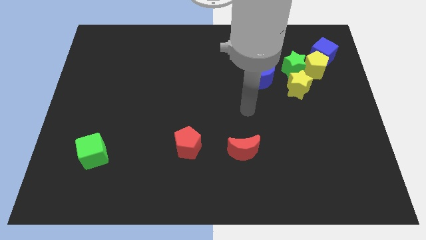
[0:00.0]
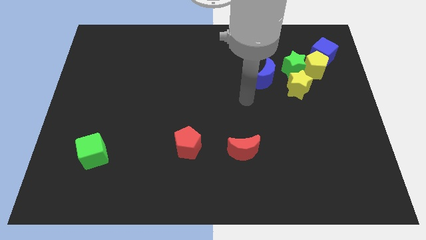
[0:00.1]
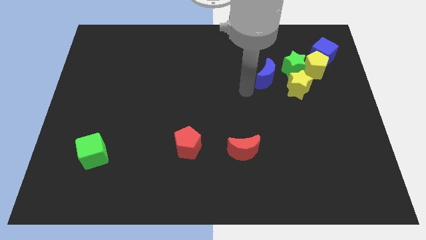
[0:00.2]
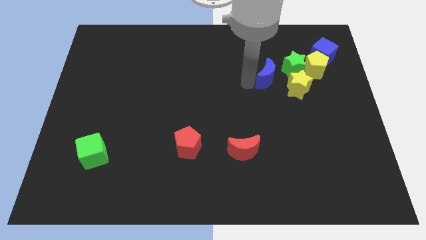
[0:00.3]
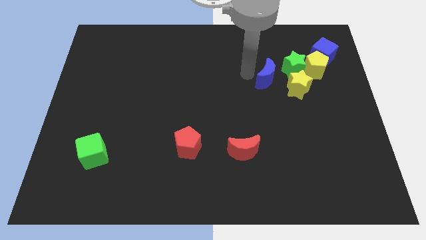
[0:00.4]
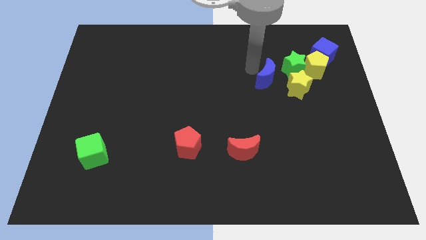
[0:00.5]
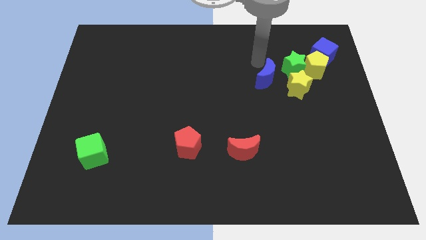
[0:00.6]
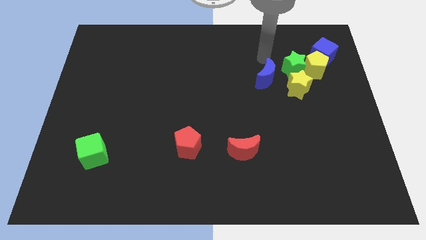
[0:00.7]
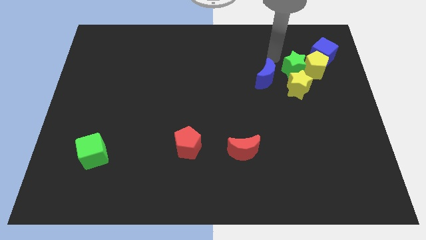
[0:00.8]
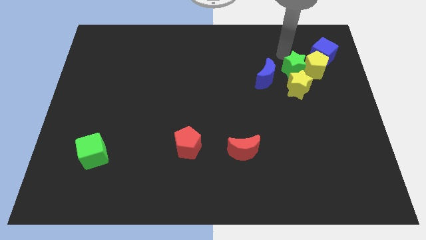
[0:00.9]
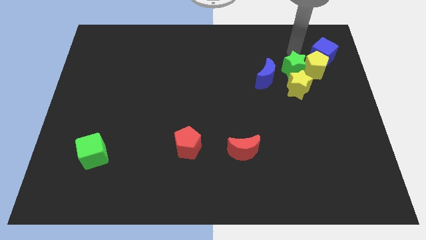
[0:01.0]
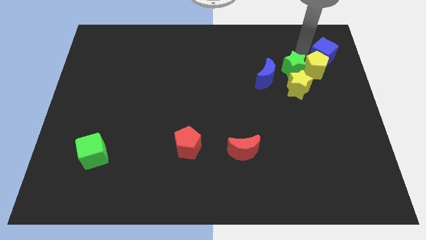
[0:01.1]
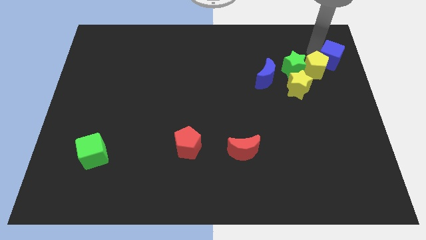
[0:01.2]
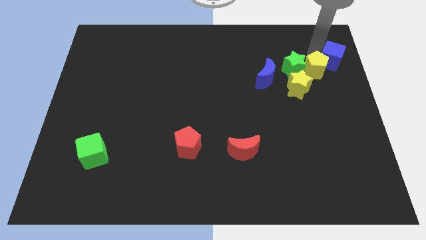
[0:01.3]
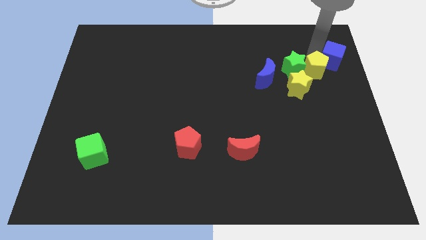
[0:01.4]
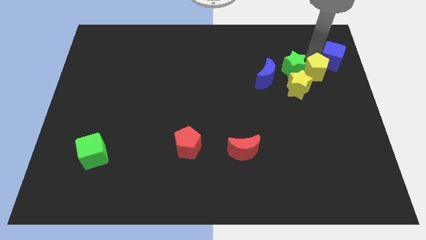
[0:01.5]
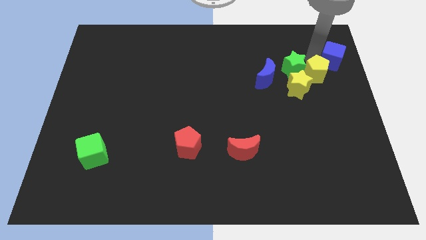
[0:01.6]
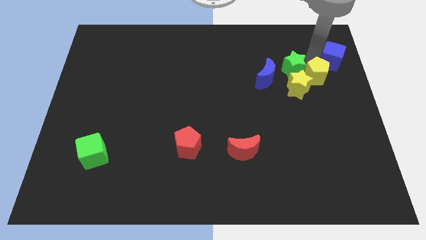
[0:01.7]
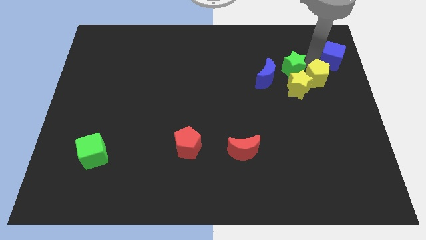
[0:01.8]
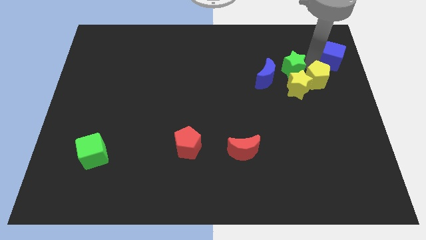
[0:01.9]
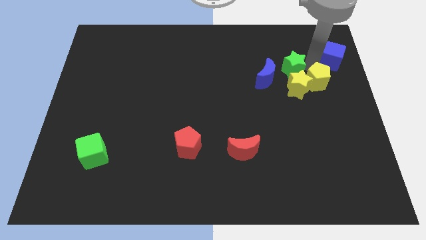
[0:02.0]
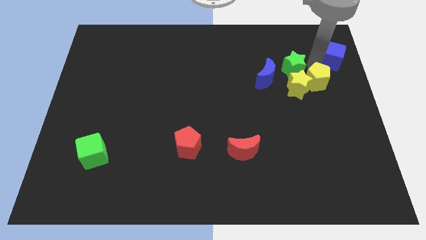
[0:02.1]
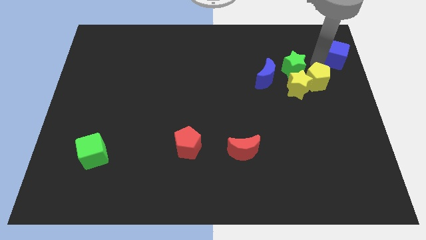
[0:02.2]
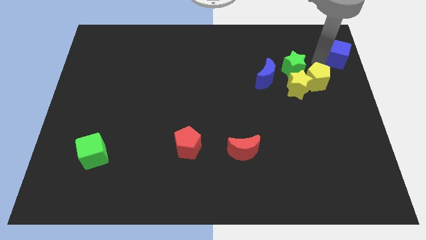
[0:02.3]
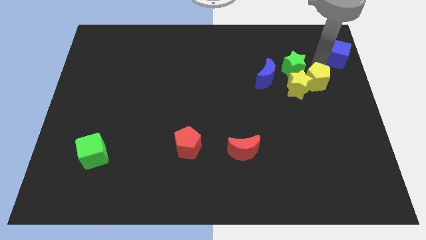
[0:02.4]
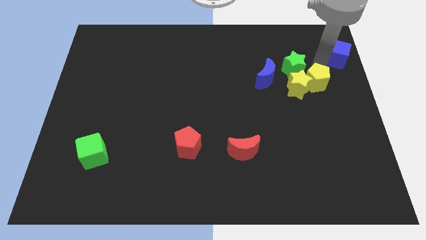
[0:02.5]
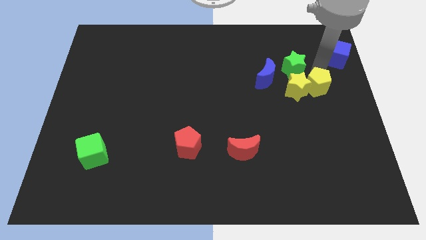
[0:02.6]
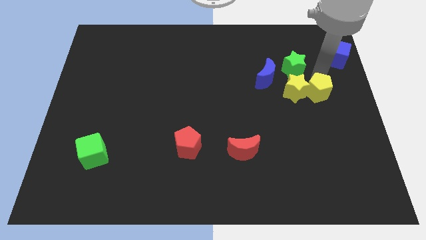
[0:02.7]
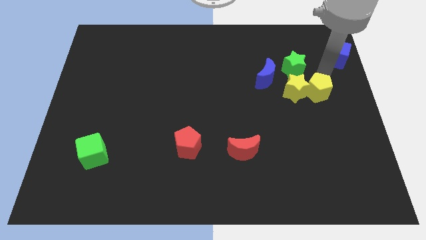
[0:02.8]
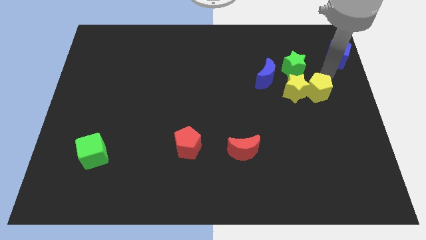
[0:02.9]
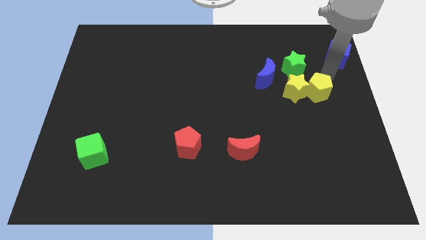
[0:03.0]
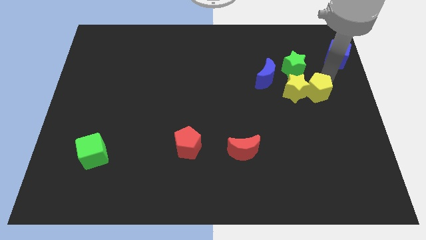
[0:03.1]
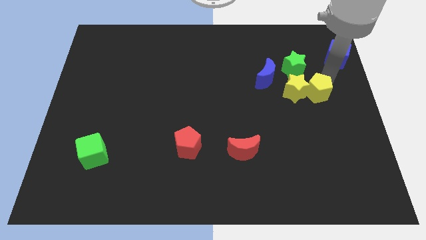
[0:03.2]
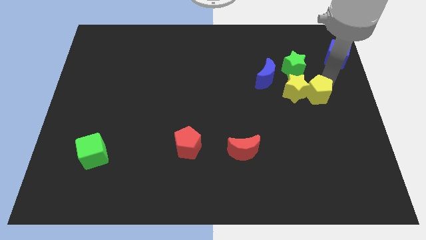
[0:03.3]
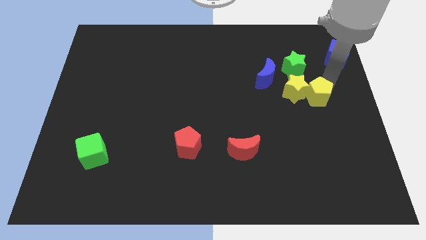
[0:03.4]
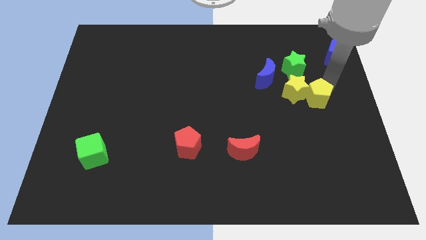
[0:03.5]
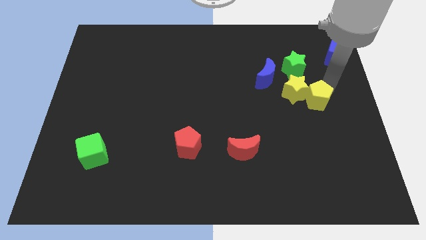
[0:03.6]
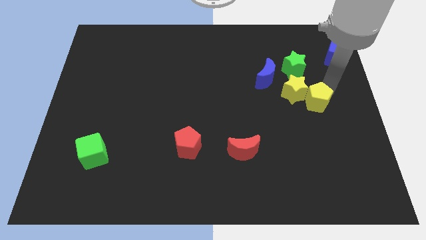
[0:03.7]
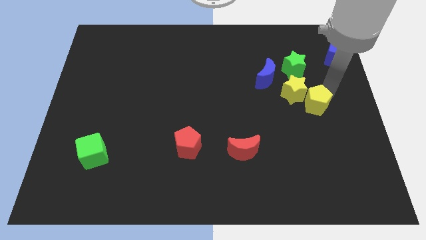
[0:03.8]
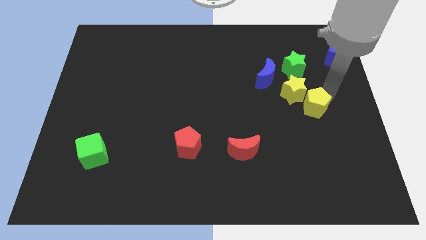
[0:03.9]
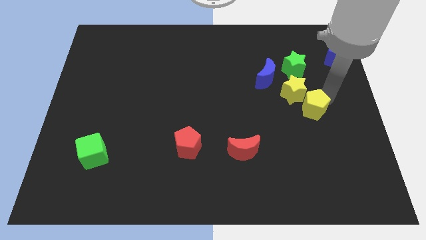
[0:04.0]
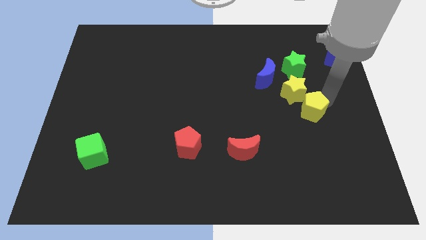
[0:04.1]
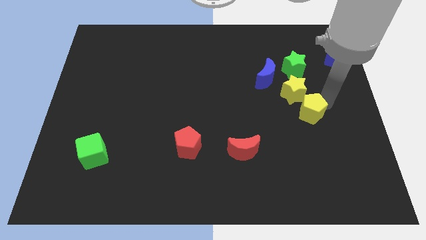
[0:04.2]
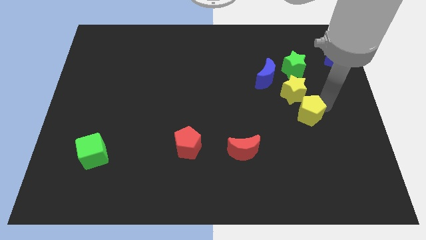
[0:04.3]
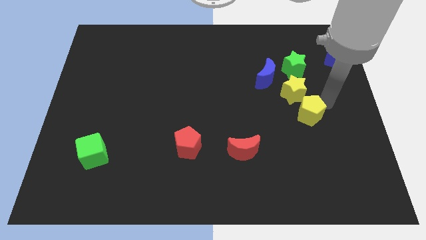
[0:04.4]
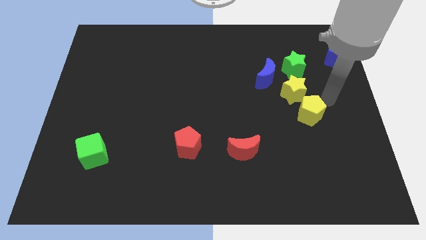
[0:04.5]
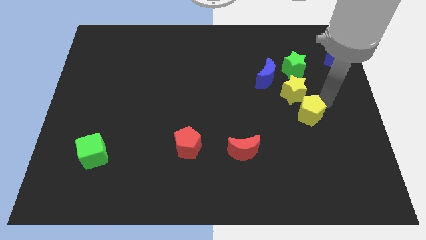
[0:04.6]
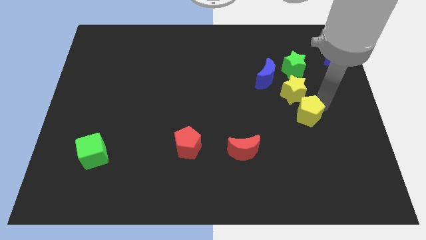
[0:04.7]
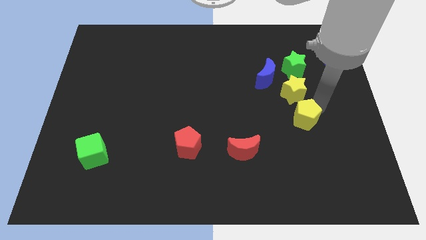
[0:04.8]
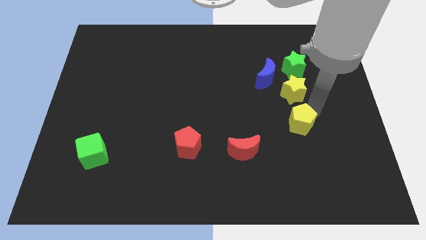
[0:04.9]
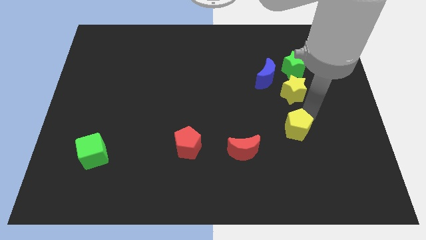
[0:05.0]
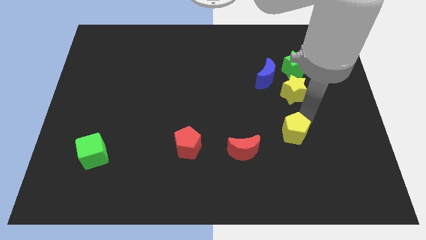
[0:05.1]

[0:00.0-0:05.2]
slide the yellow pentagon to the right of the red moon

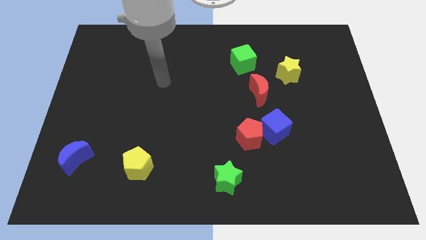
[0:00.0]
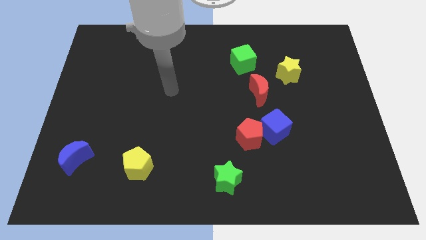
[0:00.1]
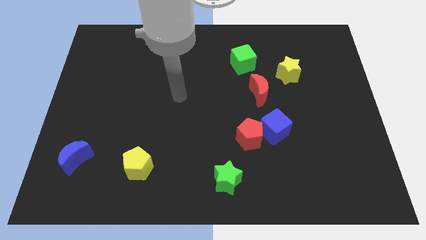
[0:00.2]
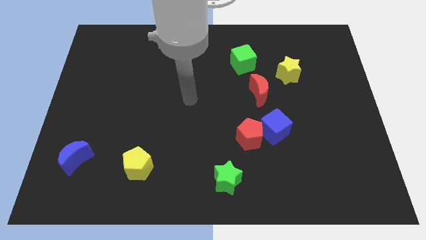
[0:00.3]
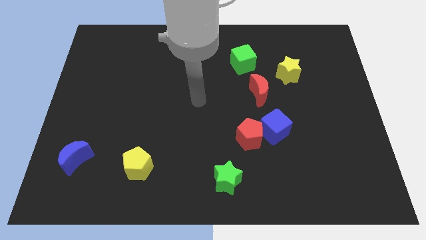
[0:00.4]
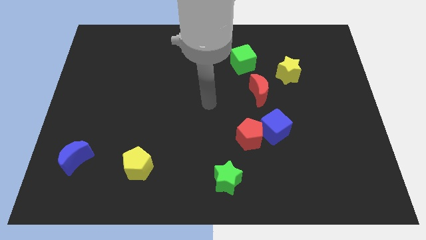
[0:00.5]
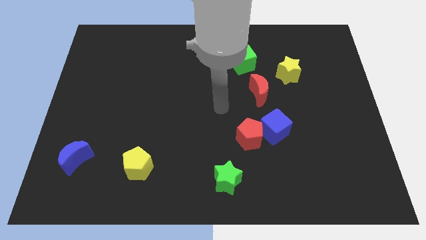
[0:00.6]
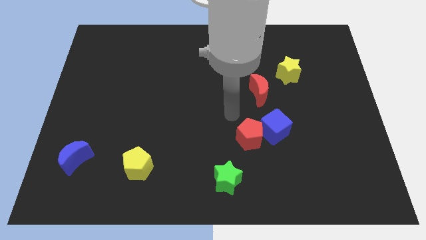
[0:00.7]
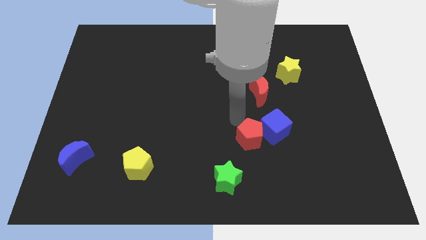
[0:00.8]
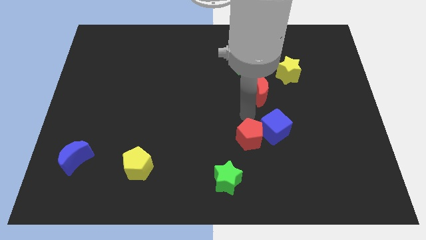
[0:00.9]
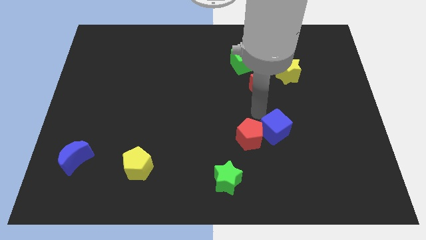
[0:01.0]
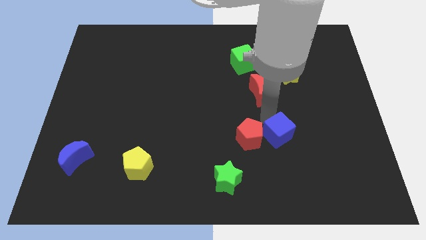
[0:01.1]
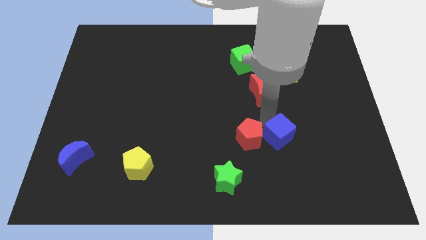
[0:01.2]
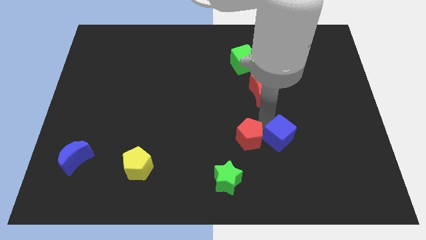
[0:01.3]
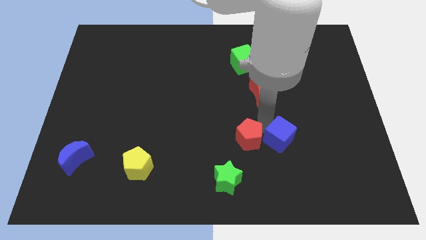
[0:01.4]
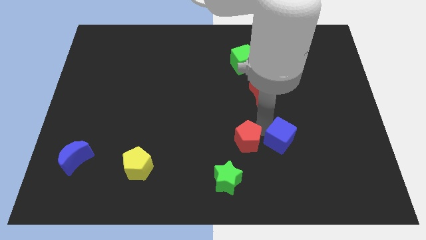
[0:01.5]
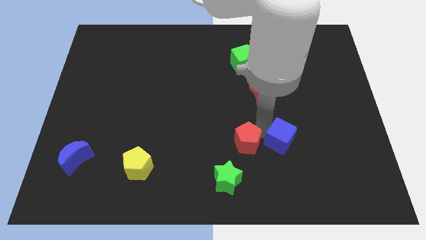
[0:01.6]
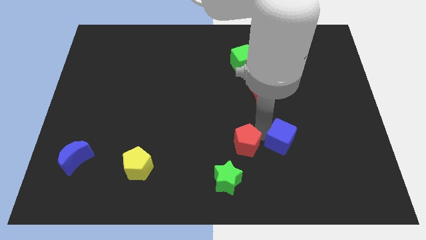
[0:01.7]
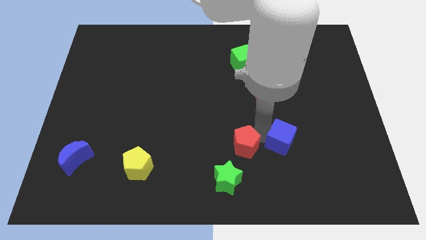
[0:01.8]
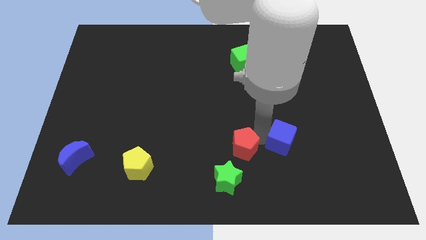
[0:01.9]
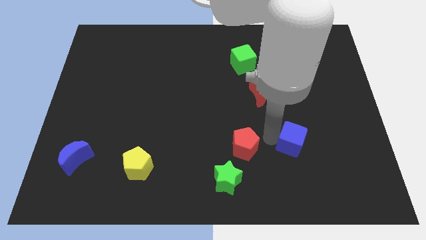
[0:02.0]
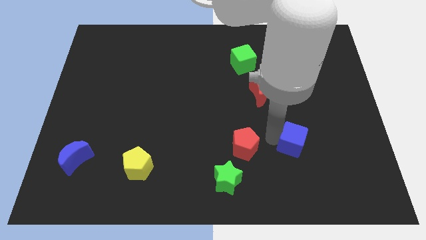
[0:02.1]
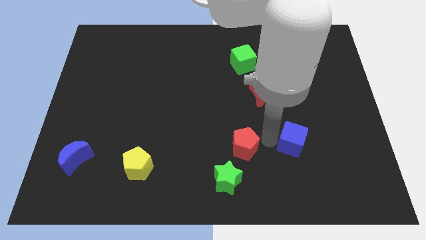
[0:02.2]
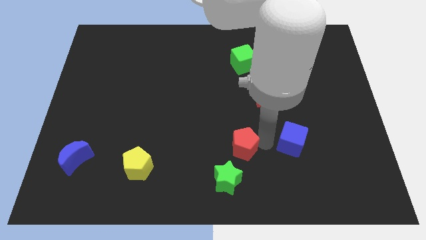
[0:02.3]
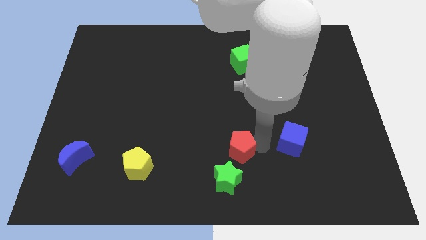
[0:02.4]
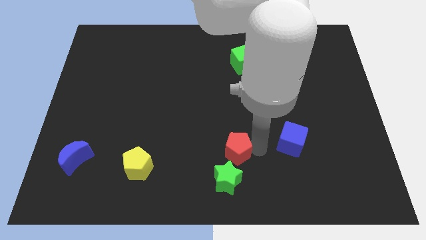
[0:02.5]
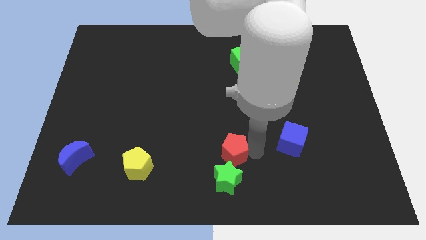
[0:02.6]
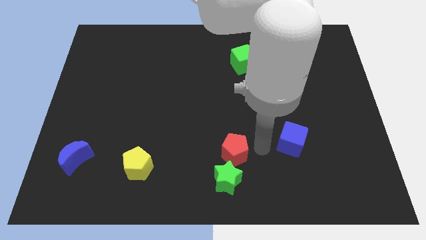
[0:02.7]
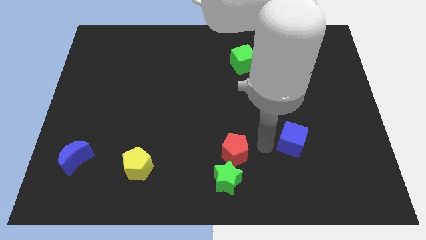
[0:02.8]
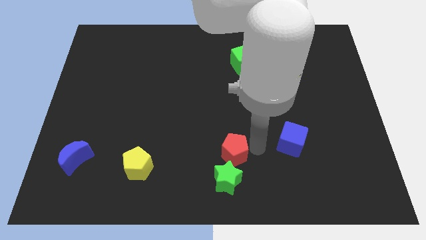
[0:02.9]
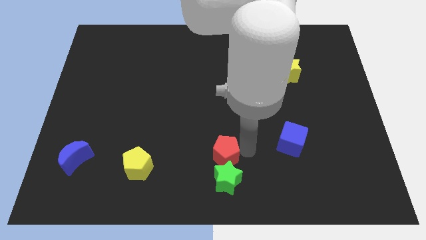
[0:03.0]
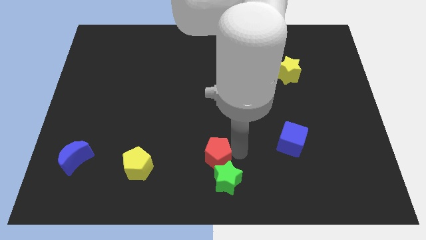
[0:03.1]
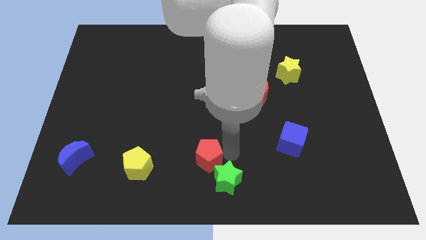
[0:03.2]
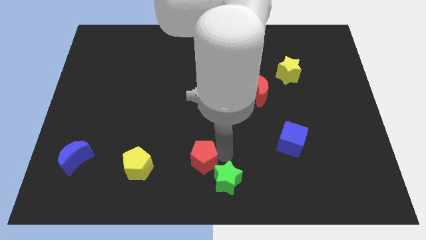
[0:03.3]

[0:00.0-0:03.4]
put the red pentagon left of the green star
